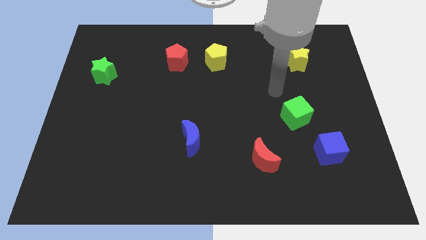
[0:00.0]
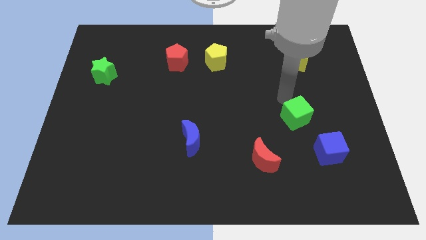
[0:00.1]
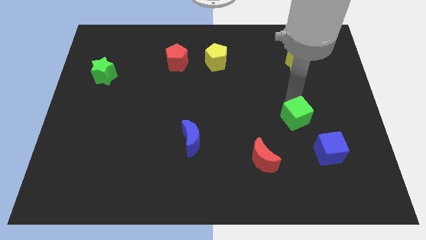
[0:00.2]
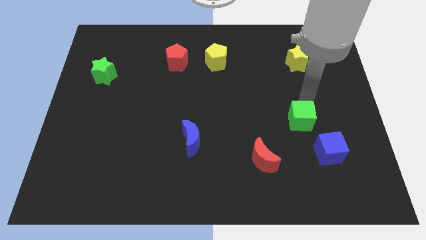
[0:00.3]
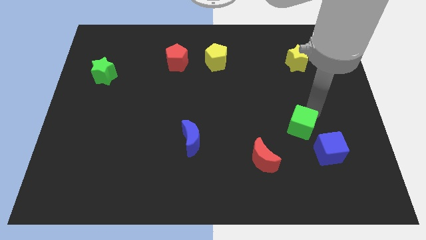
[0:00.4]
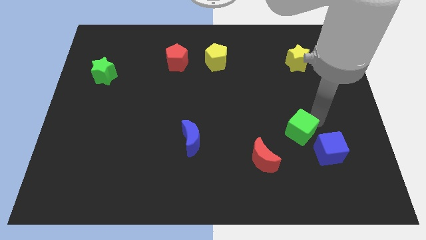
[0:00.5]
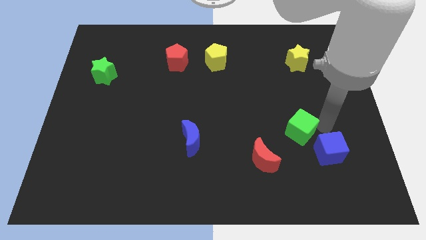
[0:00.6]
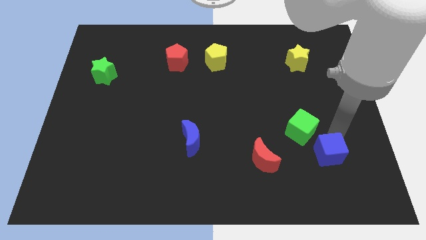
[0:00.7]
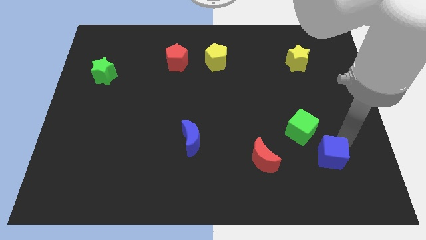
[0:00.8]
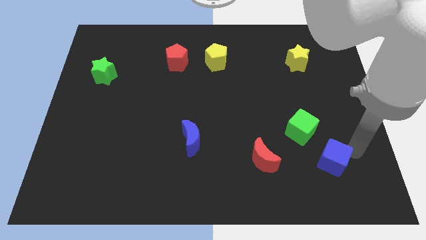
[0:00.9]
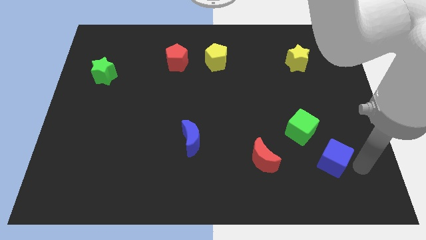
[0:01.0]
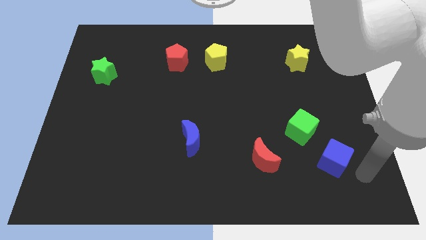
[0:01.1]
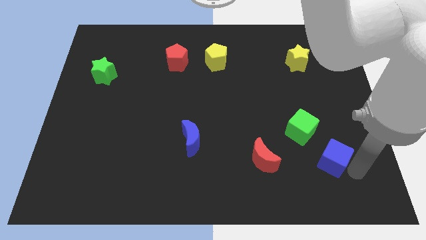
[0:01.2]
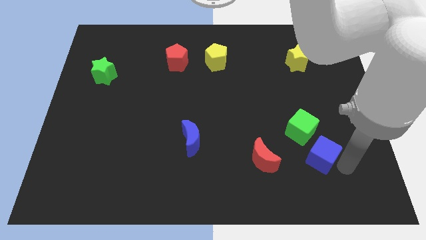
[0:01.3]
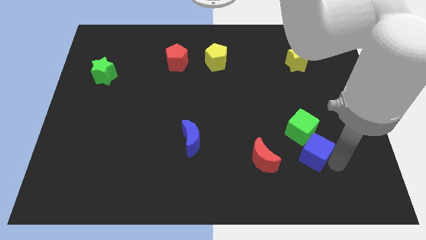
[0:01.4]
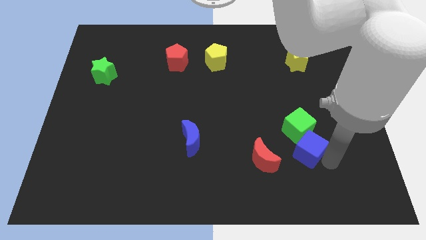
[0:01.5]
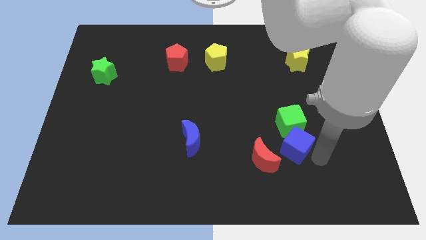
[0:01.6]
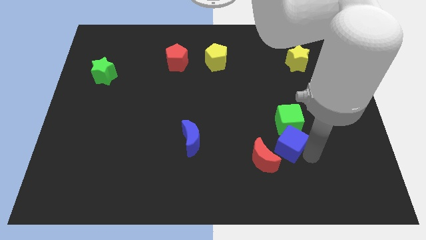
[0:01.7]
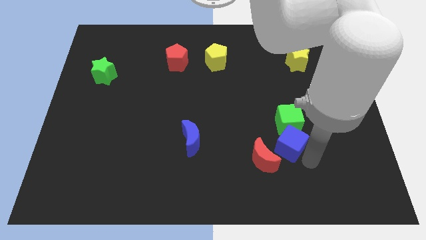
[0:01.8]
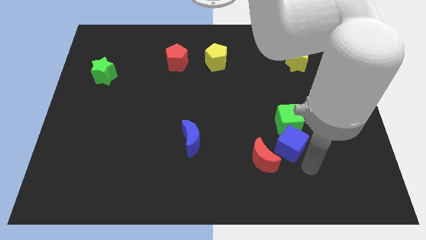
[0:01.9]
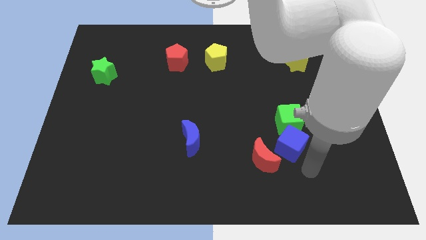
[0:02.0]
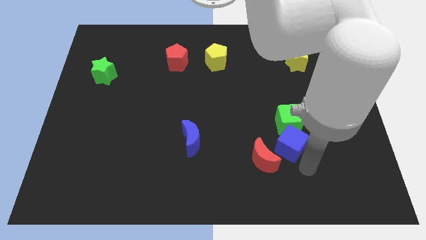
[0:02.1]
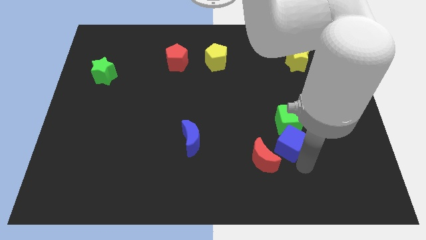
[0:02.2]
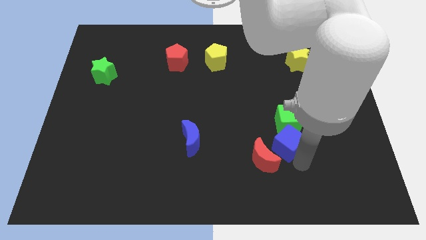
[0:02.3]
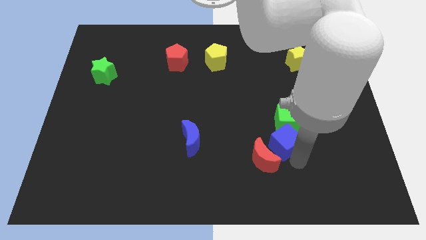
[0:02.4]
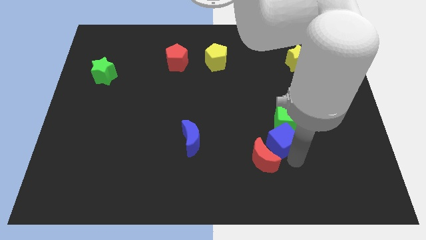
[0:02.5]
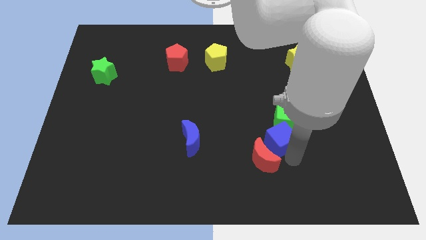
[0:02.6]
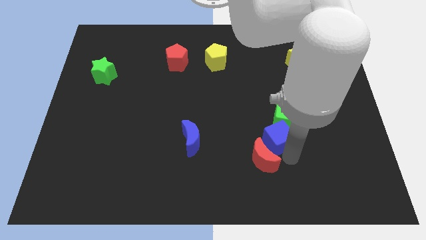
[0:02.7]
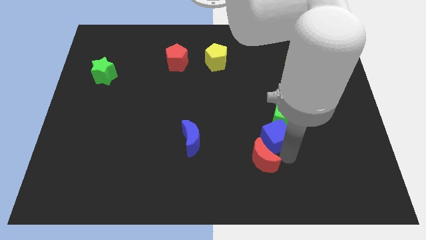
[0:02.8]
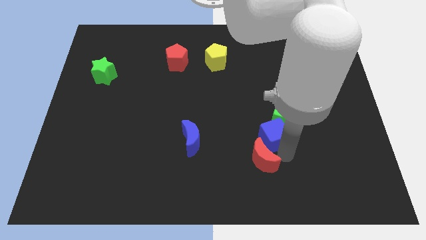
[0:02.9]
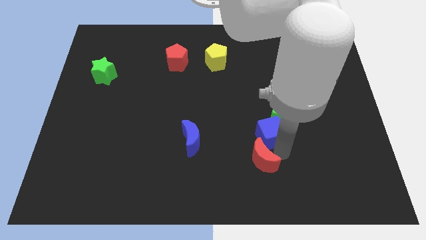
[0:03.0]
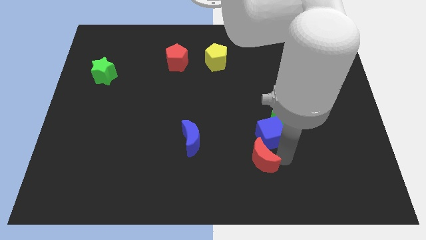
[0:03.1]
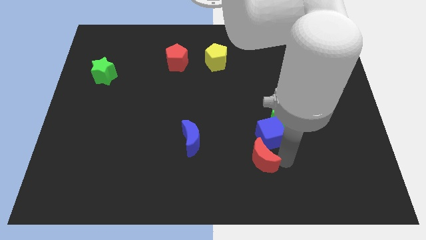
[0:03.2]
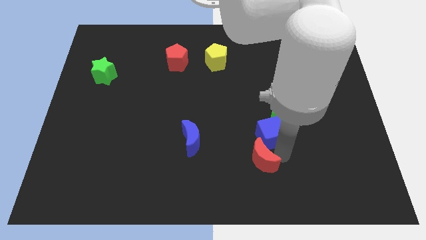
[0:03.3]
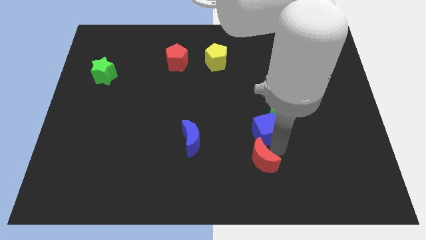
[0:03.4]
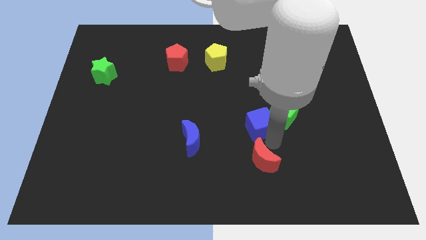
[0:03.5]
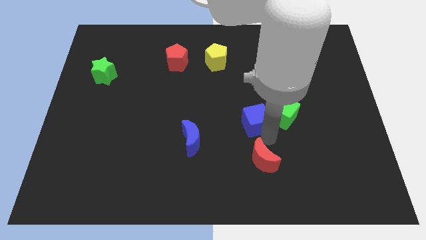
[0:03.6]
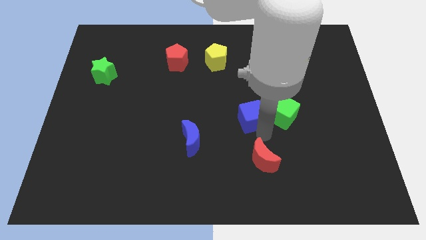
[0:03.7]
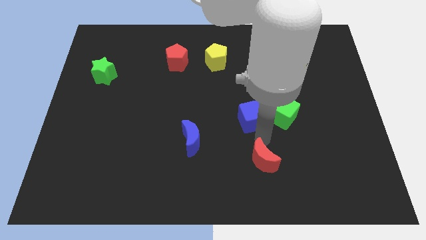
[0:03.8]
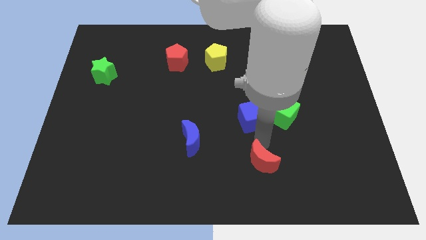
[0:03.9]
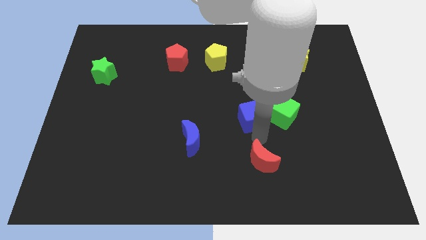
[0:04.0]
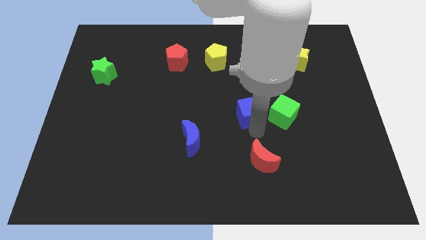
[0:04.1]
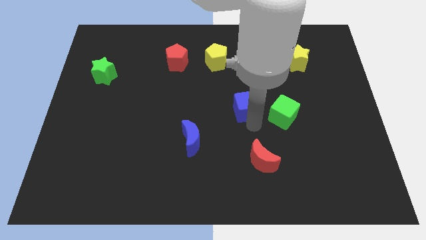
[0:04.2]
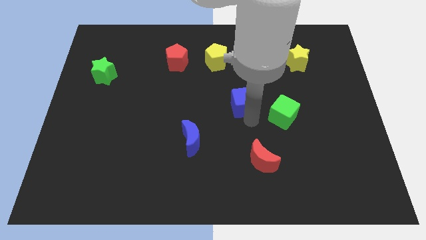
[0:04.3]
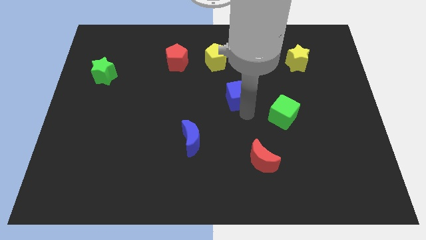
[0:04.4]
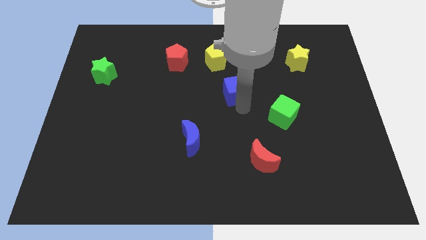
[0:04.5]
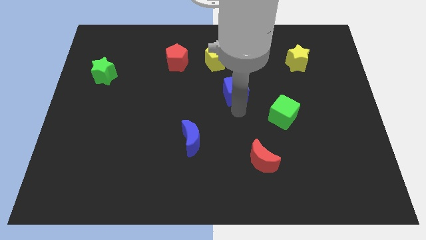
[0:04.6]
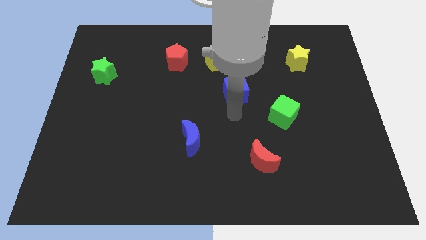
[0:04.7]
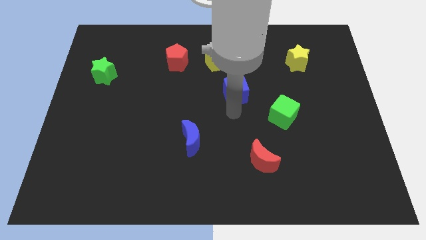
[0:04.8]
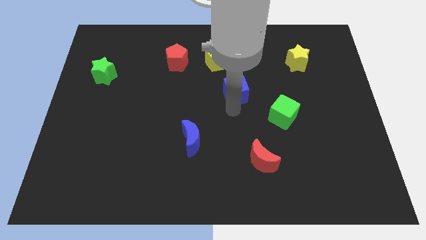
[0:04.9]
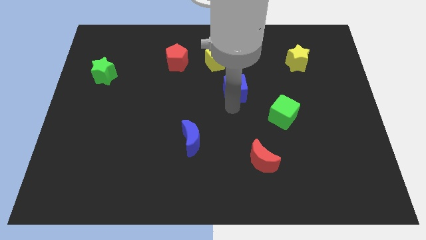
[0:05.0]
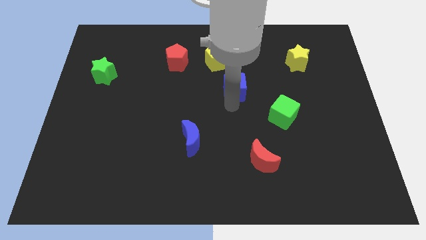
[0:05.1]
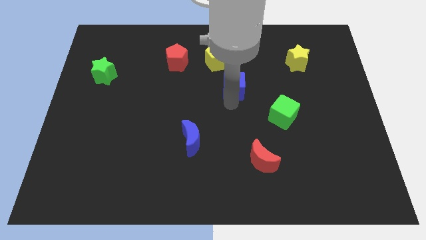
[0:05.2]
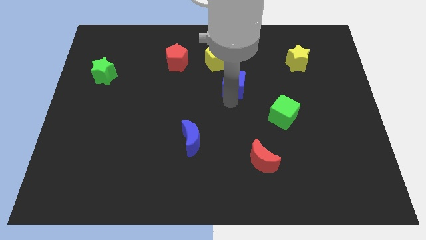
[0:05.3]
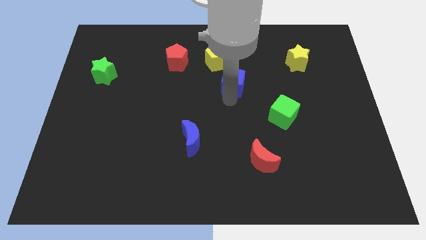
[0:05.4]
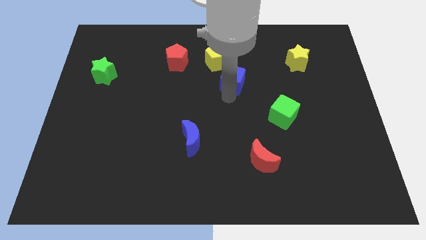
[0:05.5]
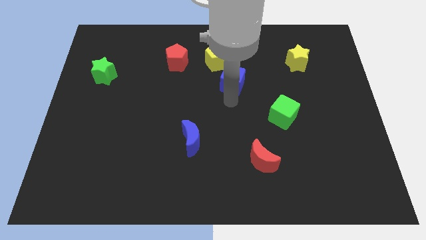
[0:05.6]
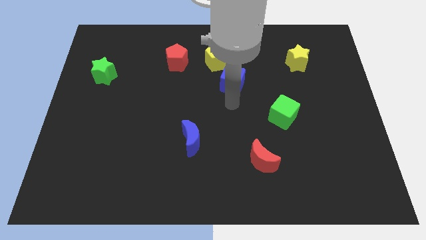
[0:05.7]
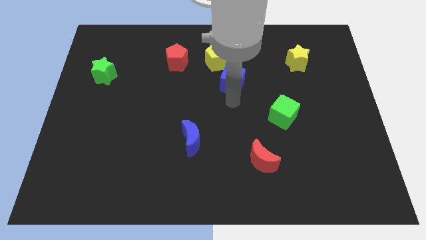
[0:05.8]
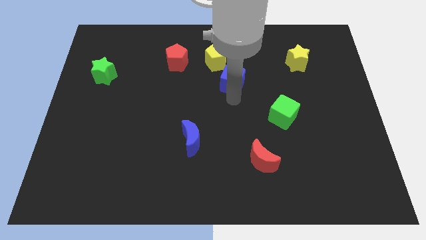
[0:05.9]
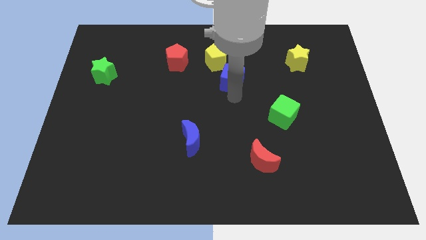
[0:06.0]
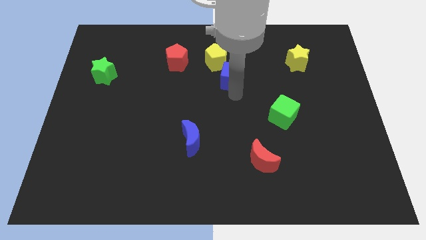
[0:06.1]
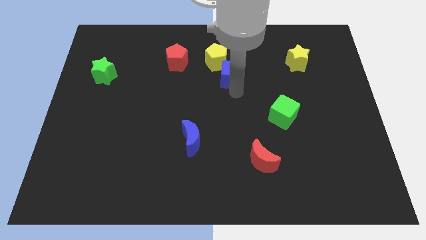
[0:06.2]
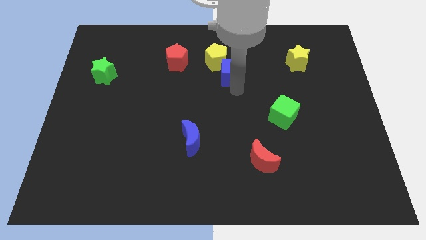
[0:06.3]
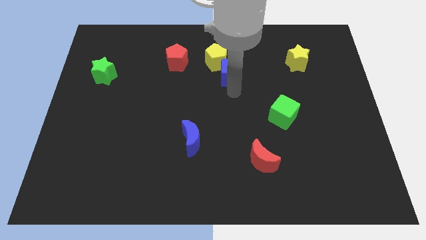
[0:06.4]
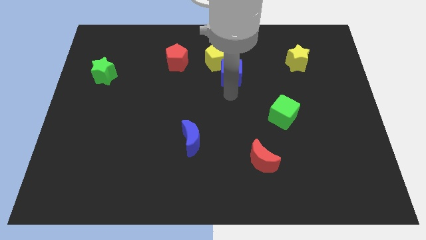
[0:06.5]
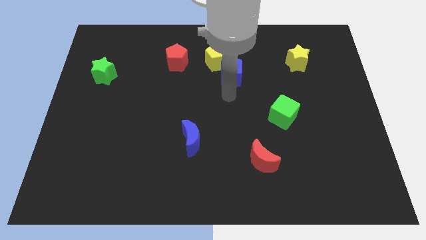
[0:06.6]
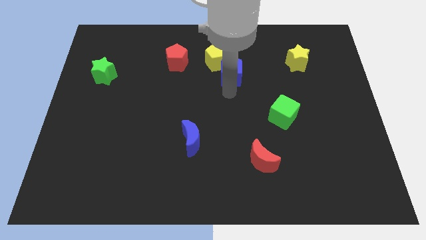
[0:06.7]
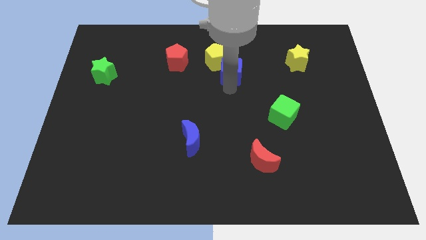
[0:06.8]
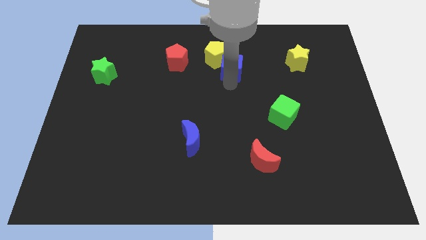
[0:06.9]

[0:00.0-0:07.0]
put the blue cube just right of the red pentagon

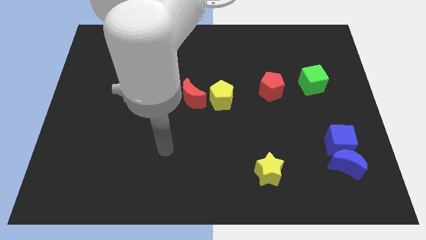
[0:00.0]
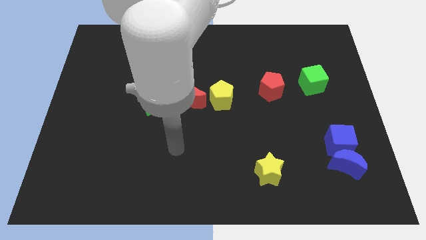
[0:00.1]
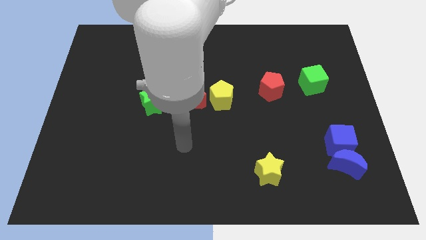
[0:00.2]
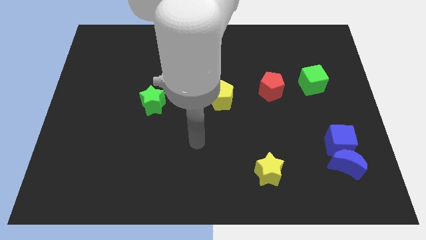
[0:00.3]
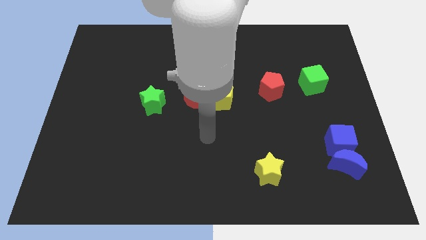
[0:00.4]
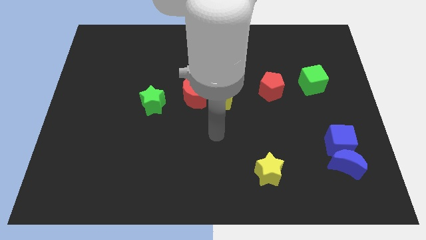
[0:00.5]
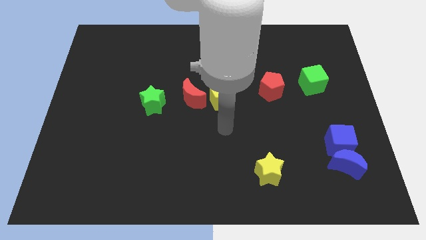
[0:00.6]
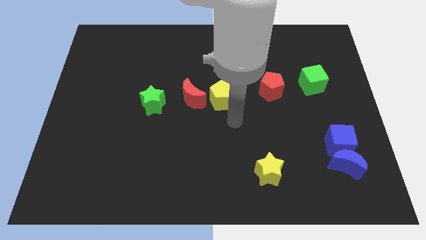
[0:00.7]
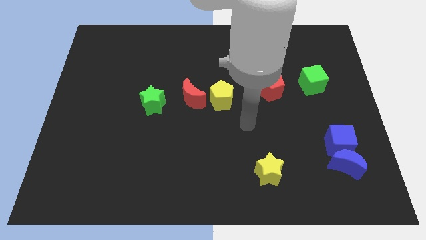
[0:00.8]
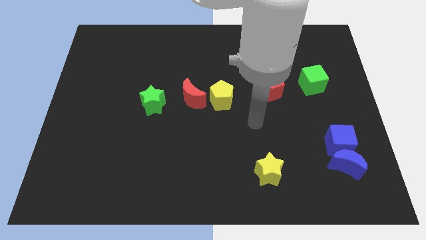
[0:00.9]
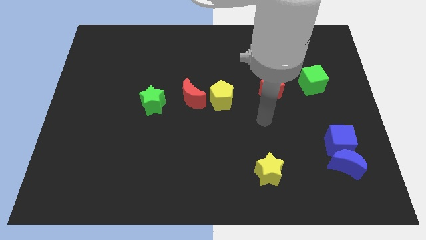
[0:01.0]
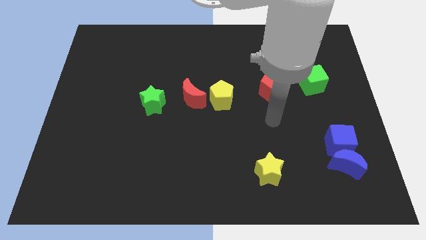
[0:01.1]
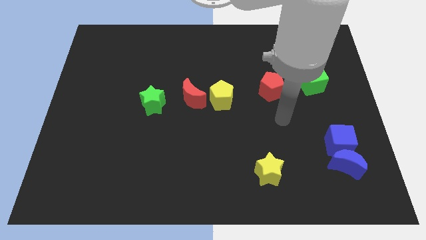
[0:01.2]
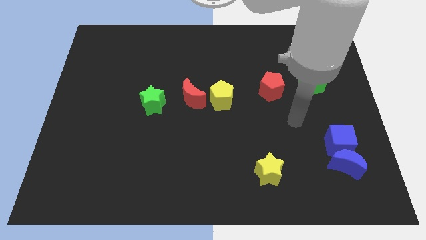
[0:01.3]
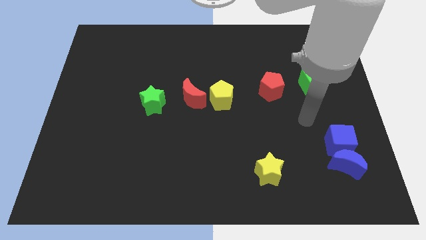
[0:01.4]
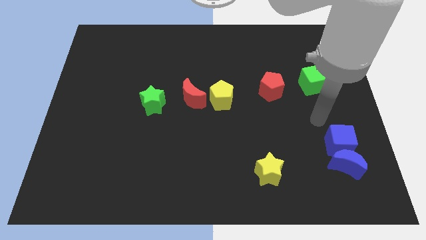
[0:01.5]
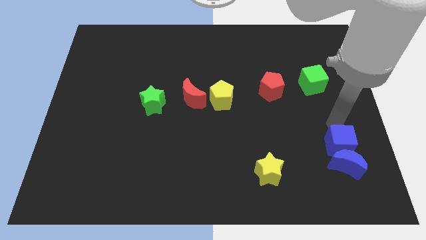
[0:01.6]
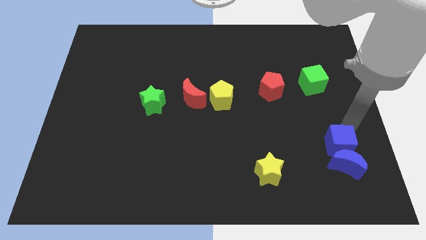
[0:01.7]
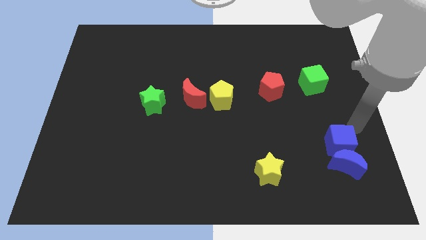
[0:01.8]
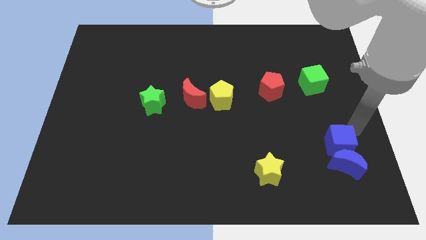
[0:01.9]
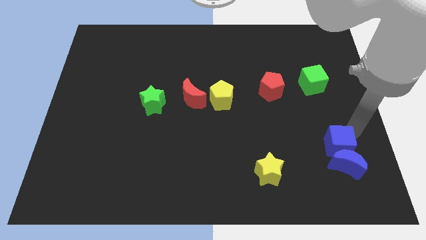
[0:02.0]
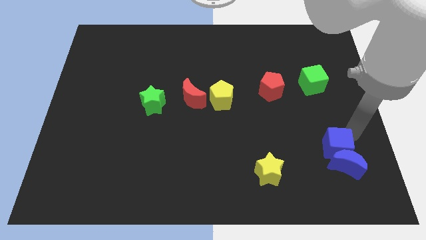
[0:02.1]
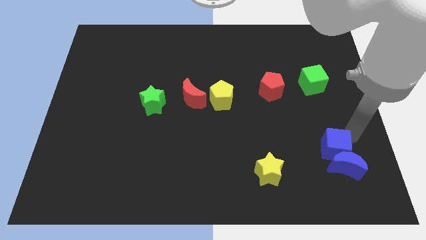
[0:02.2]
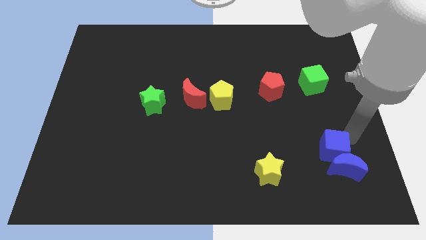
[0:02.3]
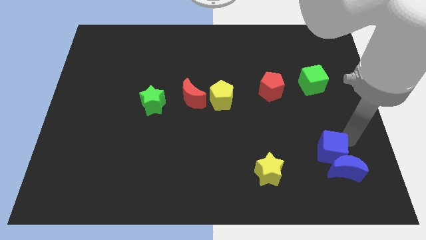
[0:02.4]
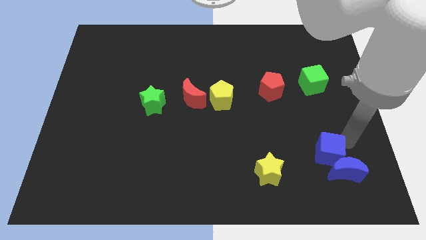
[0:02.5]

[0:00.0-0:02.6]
move the blue cube right of the yellow star
